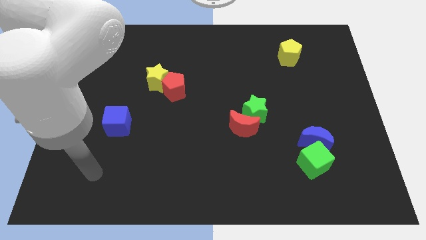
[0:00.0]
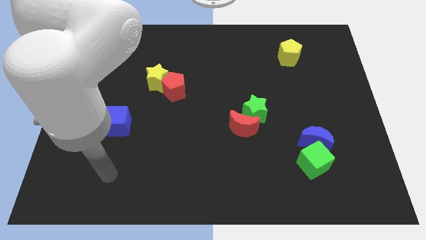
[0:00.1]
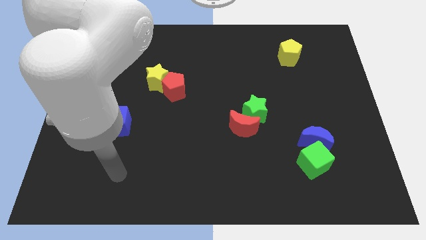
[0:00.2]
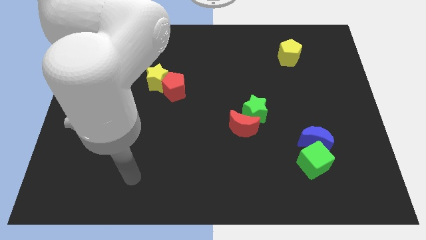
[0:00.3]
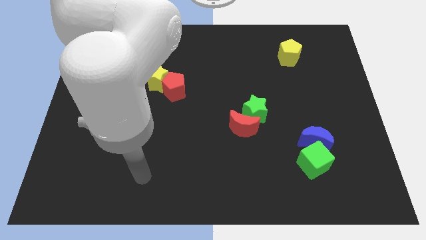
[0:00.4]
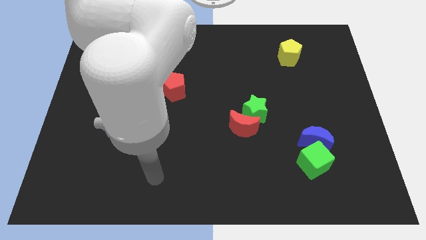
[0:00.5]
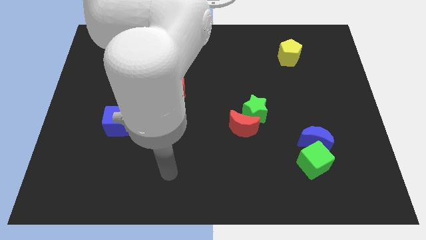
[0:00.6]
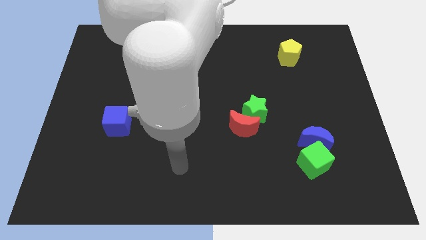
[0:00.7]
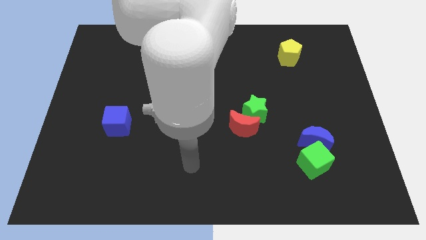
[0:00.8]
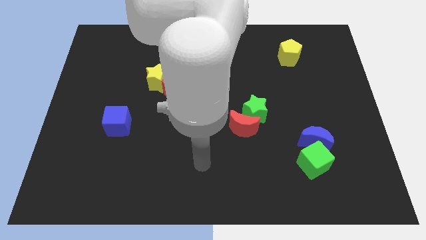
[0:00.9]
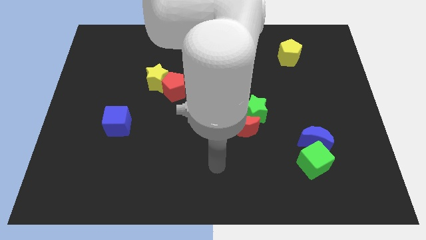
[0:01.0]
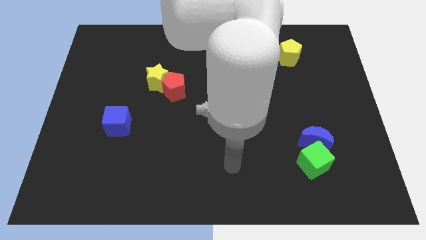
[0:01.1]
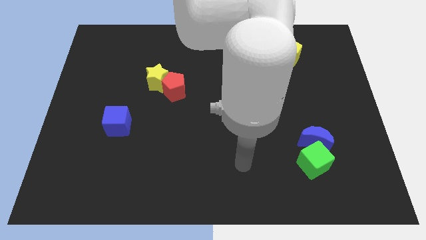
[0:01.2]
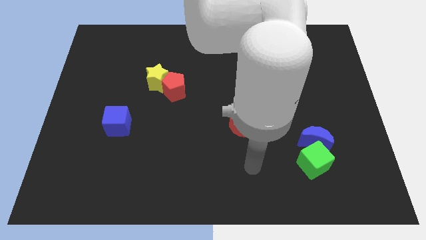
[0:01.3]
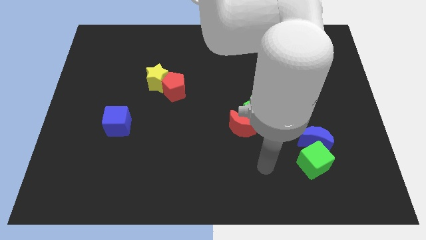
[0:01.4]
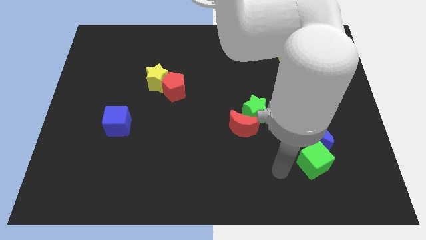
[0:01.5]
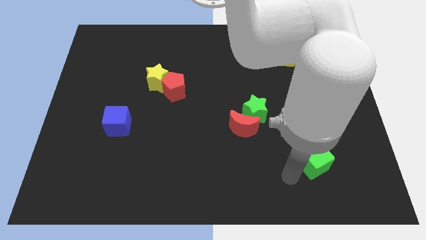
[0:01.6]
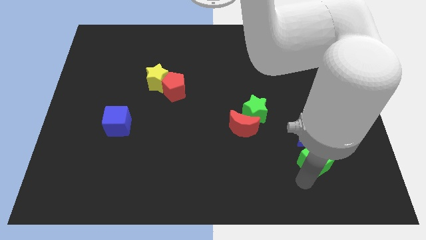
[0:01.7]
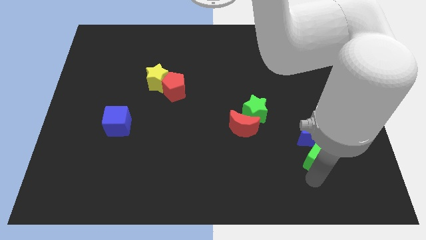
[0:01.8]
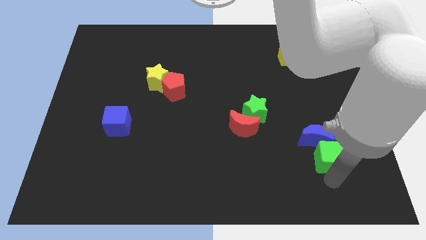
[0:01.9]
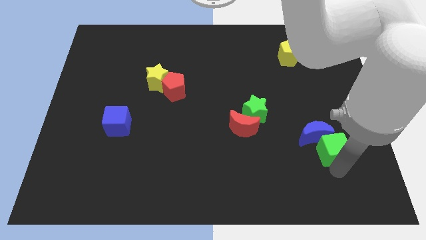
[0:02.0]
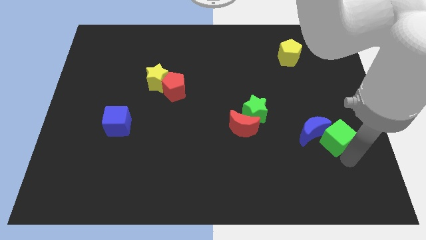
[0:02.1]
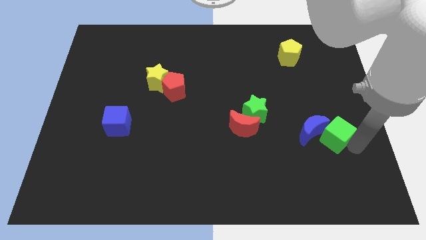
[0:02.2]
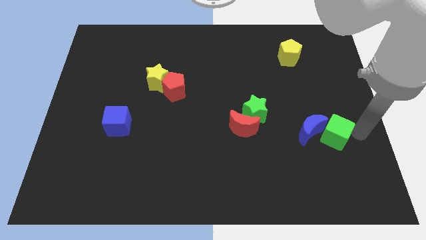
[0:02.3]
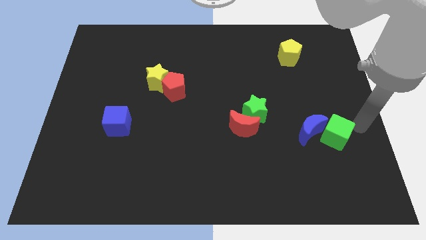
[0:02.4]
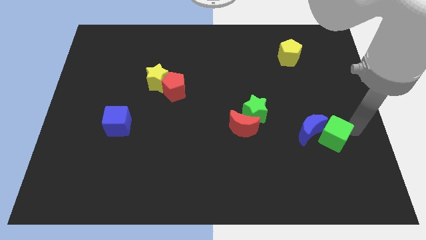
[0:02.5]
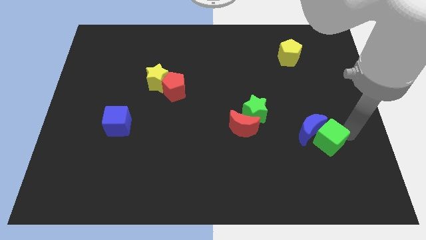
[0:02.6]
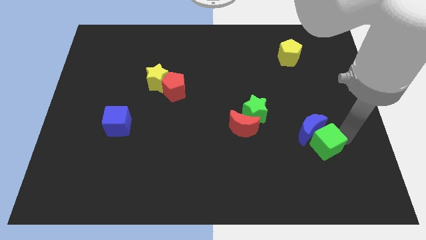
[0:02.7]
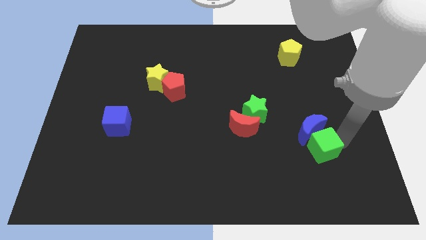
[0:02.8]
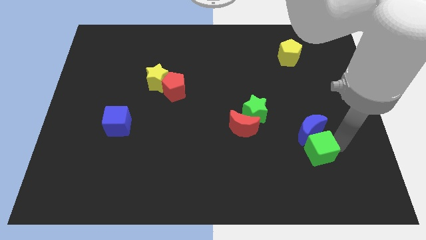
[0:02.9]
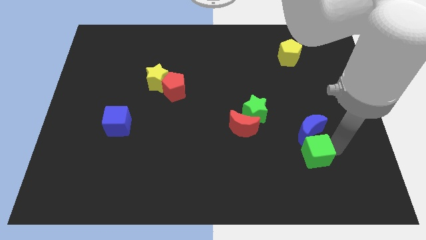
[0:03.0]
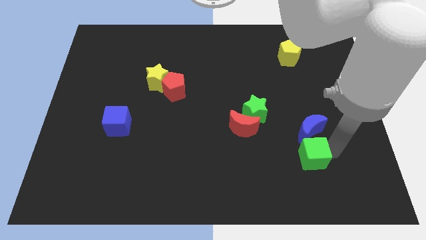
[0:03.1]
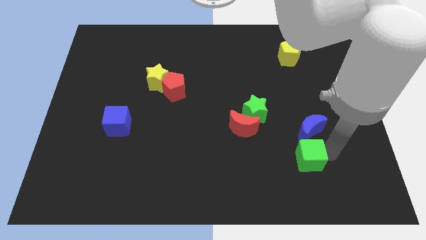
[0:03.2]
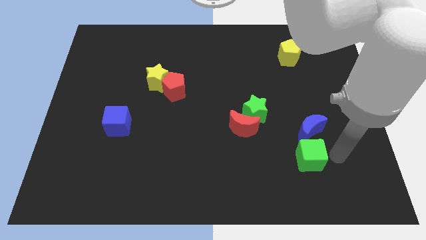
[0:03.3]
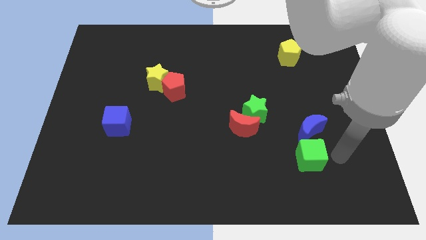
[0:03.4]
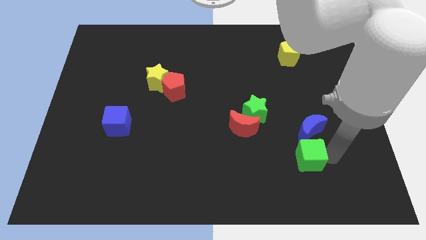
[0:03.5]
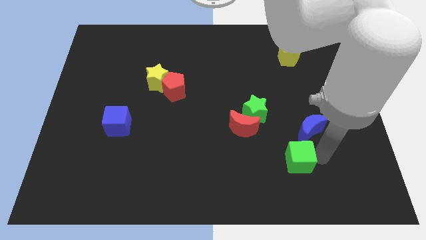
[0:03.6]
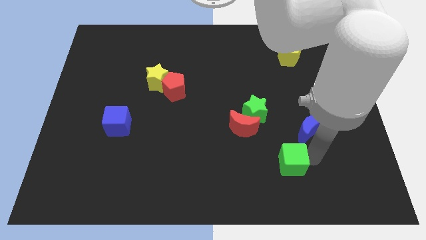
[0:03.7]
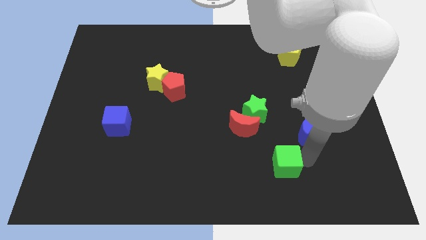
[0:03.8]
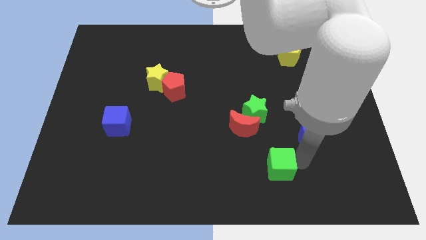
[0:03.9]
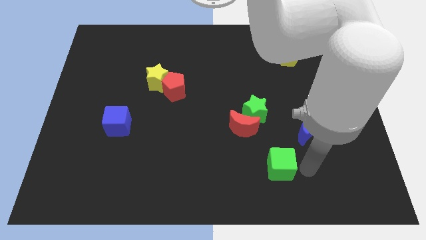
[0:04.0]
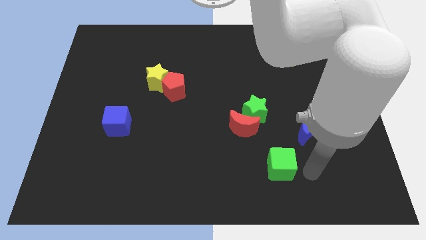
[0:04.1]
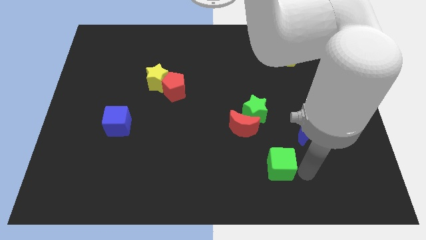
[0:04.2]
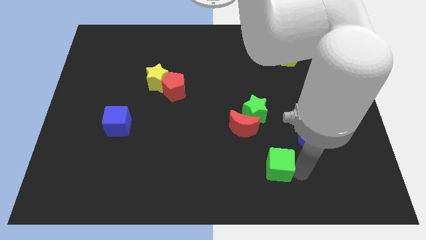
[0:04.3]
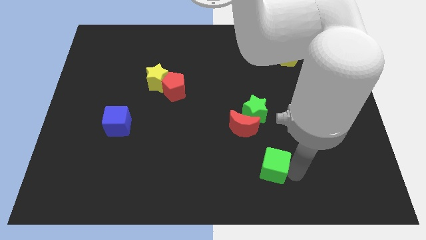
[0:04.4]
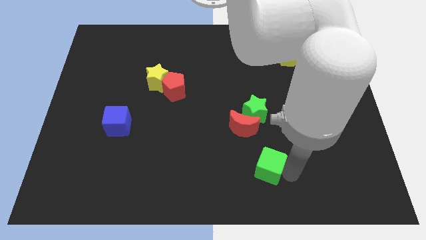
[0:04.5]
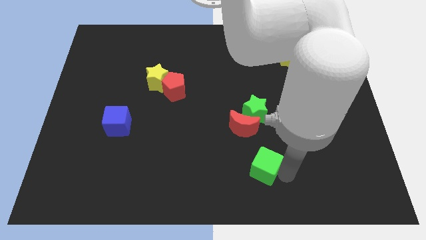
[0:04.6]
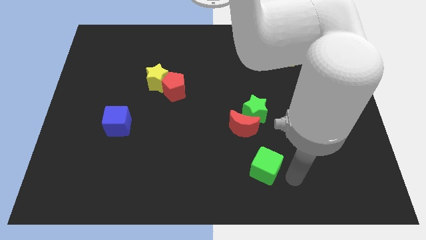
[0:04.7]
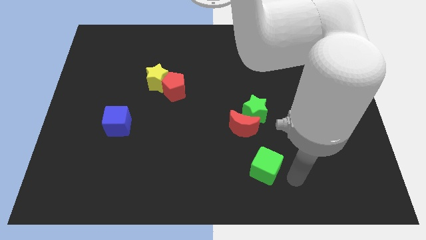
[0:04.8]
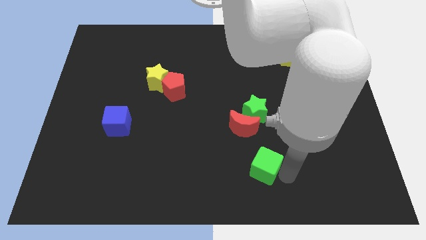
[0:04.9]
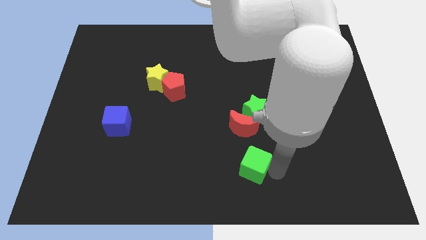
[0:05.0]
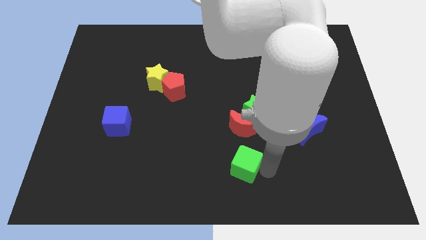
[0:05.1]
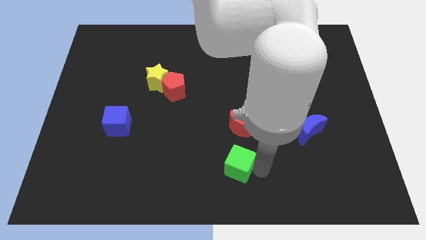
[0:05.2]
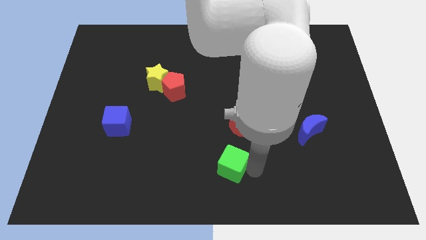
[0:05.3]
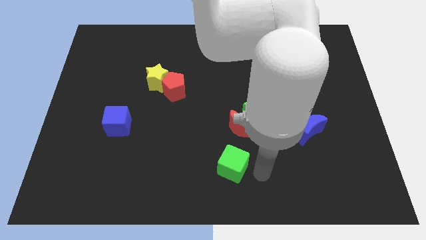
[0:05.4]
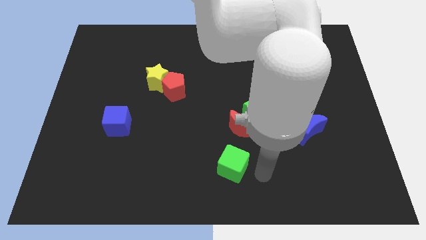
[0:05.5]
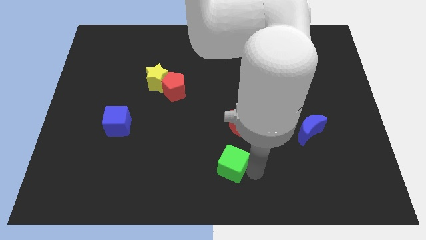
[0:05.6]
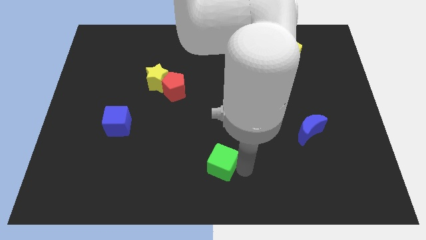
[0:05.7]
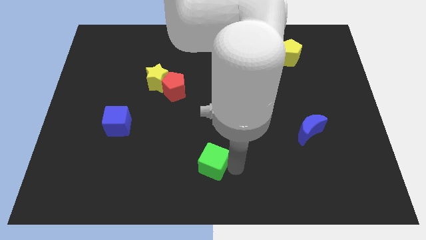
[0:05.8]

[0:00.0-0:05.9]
move the green cube to the left

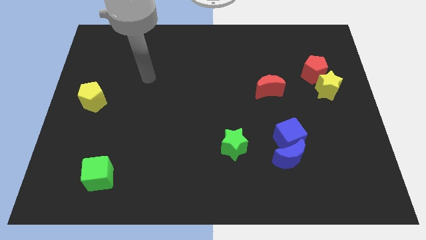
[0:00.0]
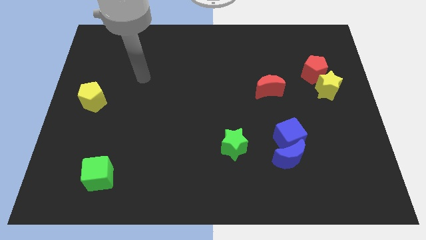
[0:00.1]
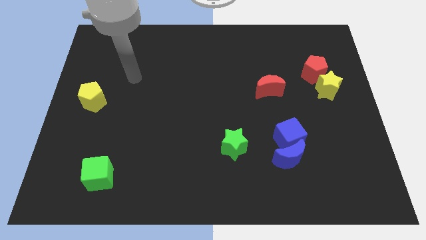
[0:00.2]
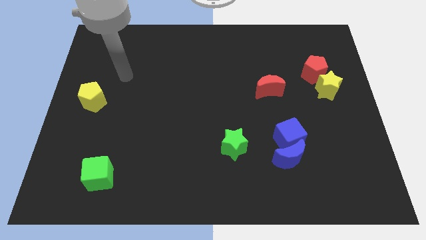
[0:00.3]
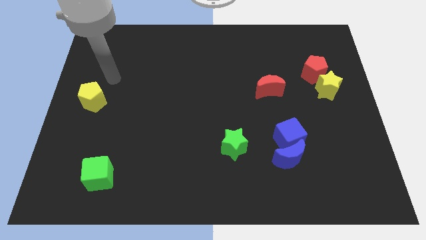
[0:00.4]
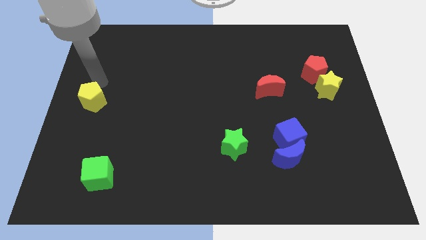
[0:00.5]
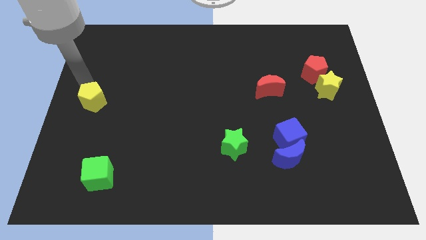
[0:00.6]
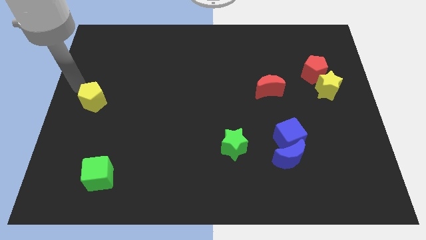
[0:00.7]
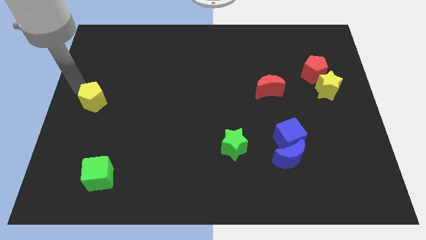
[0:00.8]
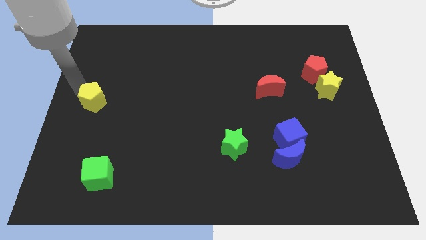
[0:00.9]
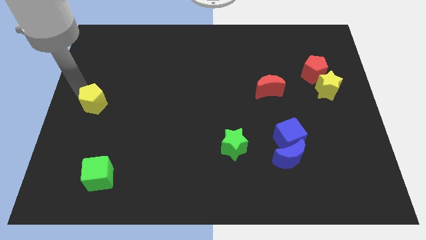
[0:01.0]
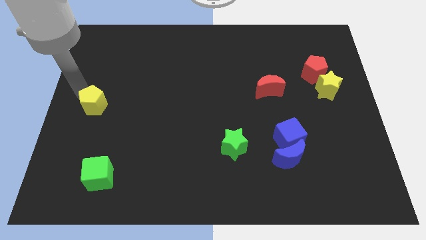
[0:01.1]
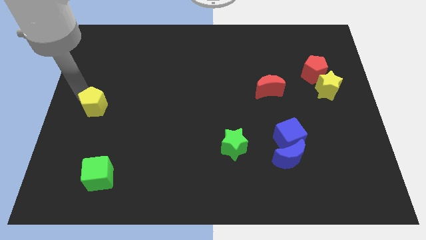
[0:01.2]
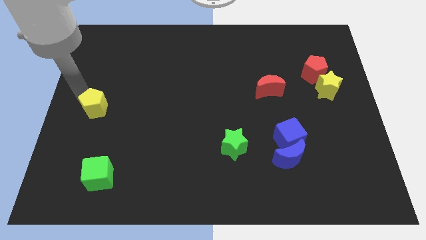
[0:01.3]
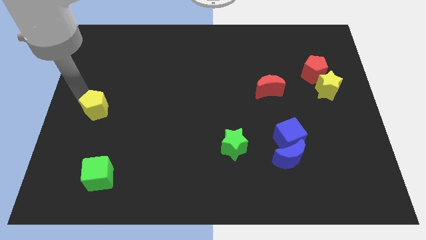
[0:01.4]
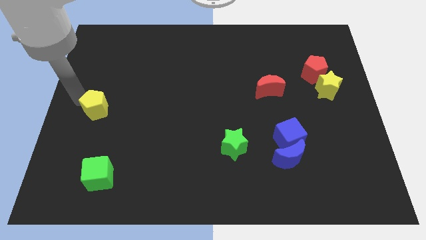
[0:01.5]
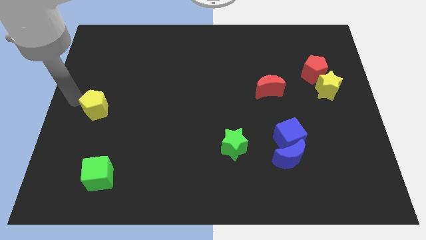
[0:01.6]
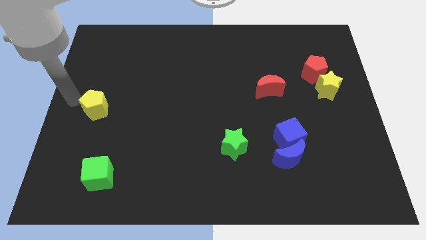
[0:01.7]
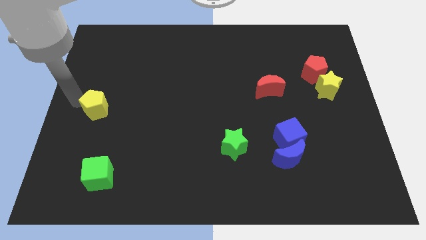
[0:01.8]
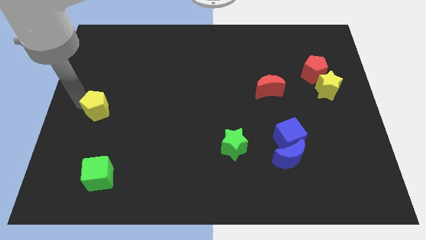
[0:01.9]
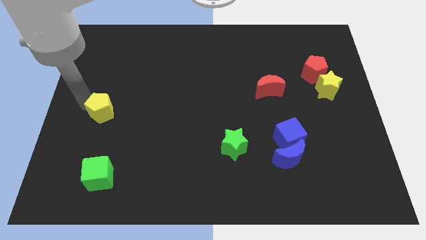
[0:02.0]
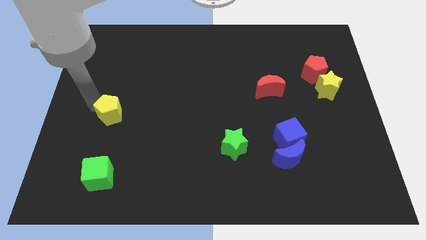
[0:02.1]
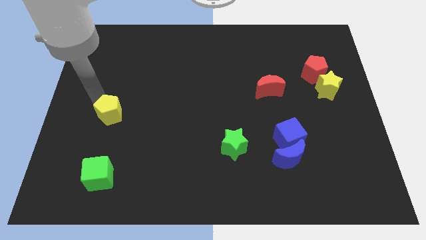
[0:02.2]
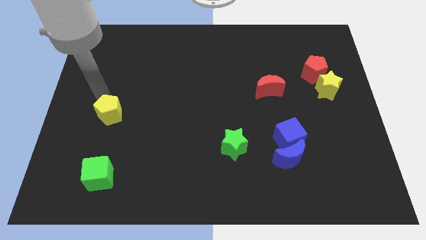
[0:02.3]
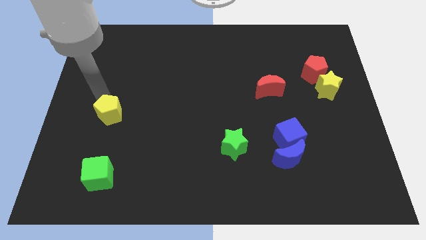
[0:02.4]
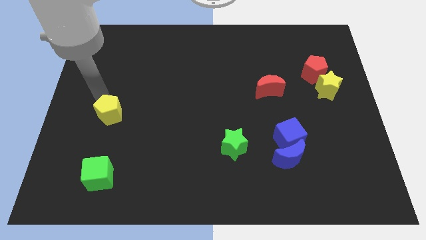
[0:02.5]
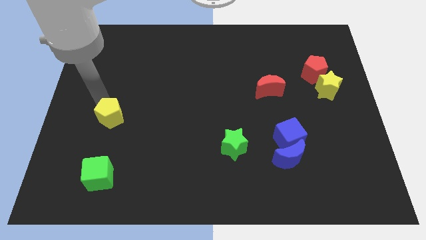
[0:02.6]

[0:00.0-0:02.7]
slightly push the yellow pentagon downwards and then right
